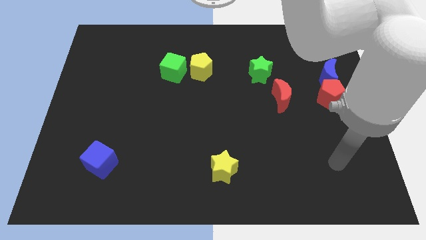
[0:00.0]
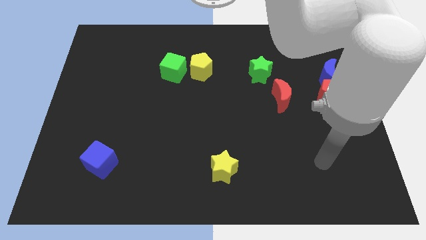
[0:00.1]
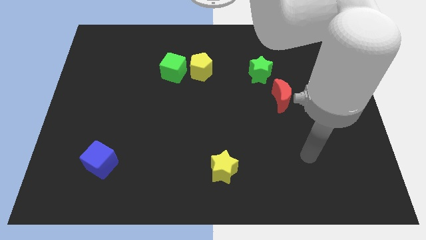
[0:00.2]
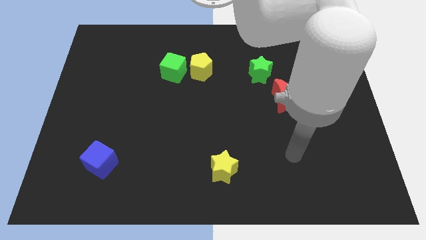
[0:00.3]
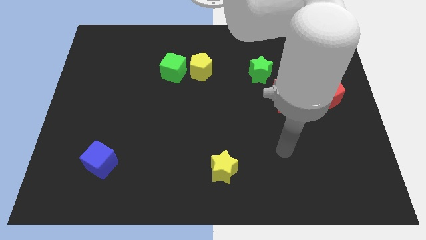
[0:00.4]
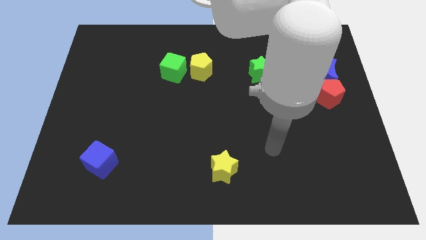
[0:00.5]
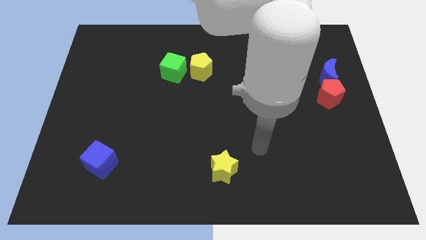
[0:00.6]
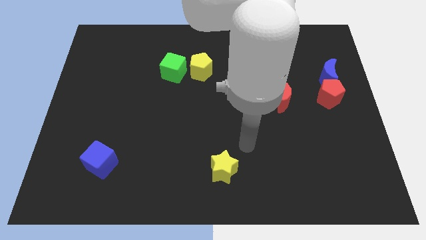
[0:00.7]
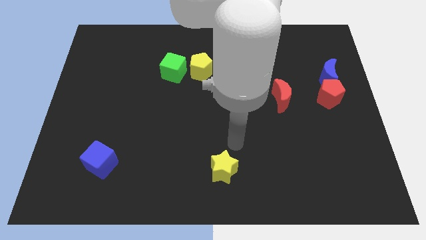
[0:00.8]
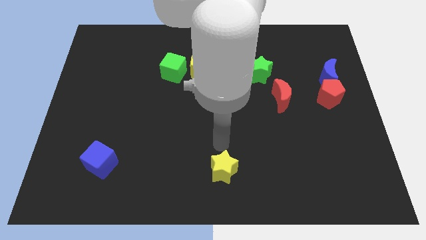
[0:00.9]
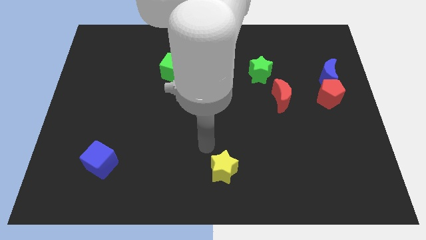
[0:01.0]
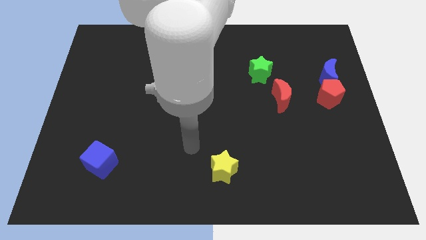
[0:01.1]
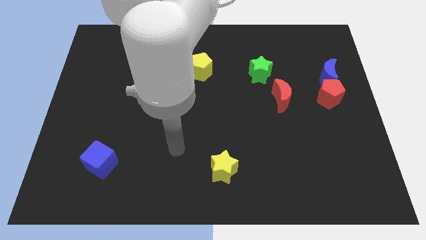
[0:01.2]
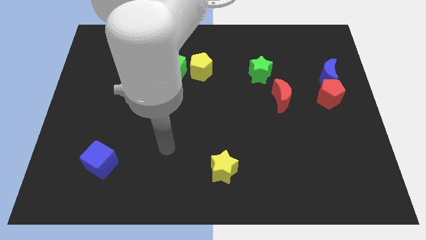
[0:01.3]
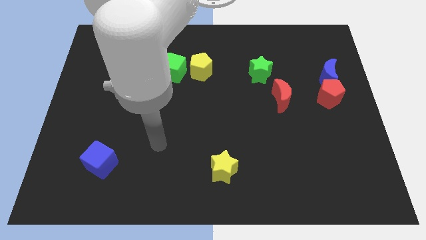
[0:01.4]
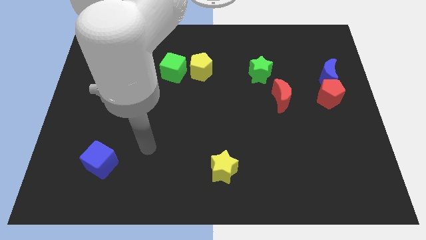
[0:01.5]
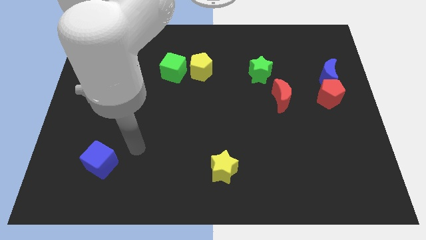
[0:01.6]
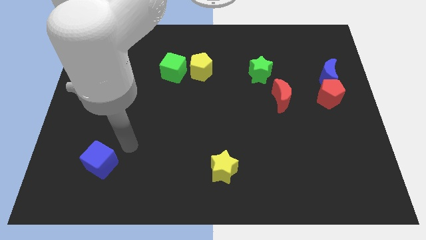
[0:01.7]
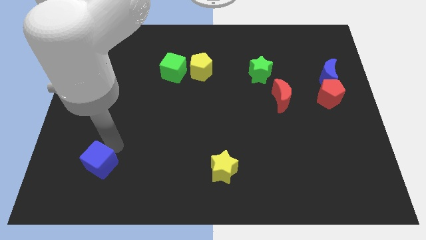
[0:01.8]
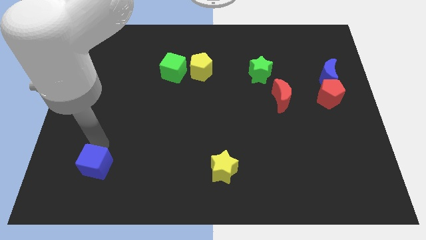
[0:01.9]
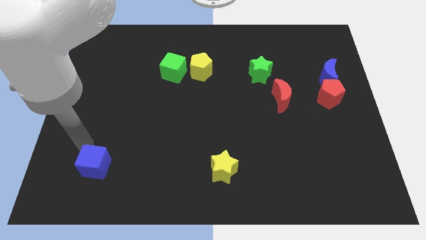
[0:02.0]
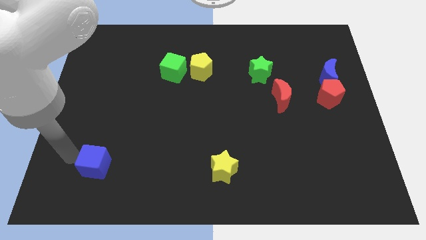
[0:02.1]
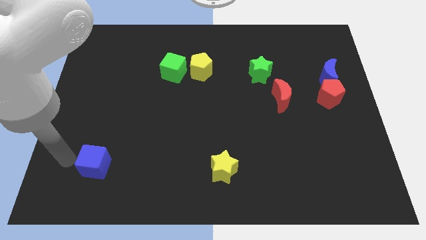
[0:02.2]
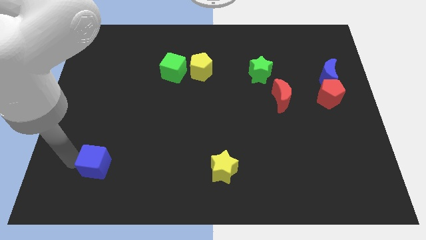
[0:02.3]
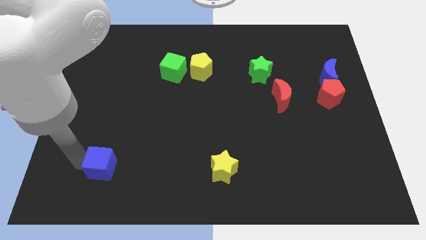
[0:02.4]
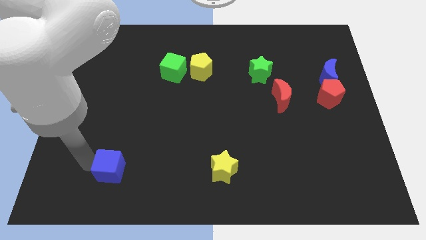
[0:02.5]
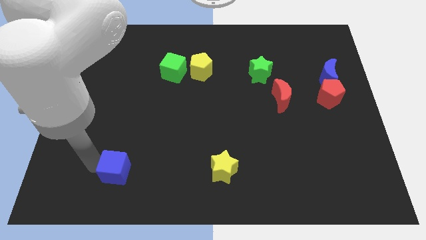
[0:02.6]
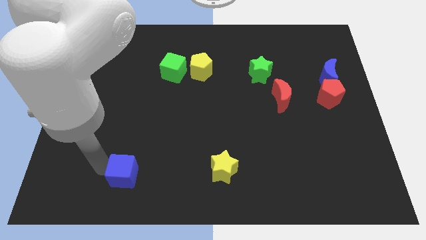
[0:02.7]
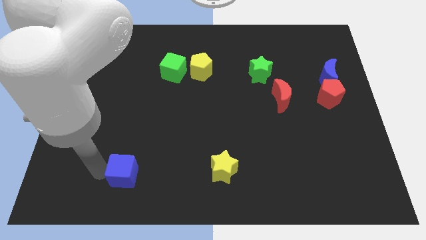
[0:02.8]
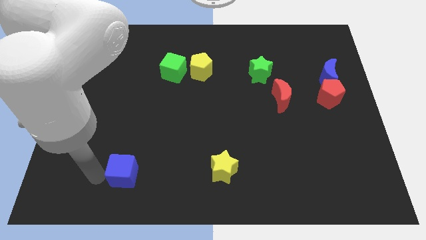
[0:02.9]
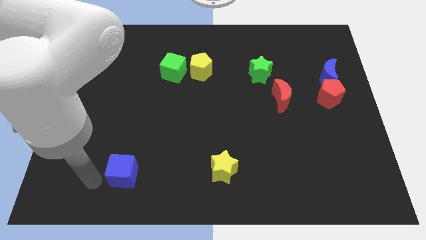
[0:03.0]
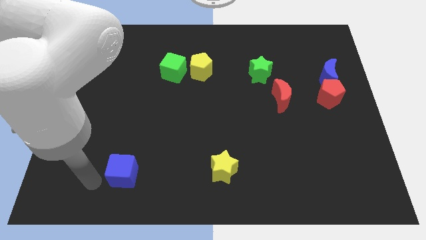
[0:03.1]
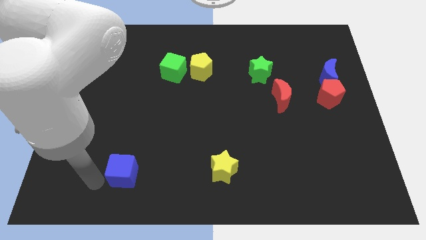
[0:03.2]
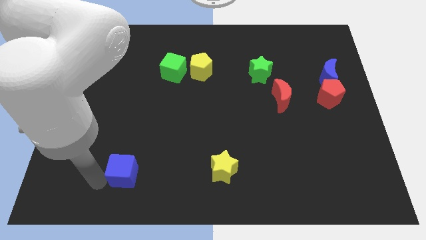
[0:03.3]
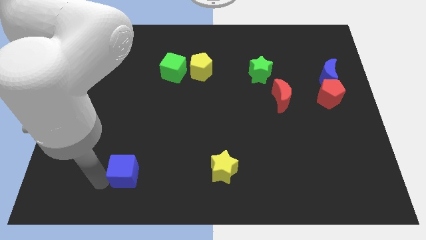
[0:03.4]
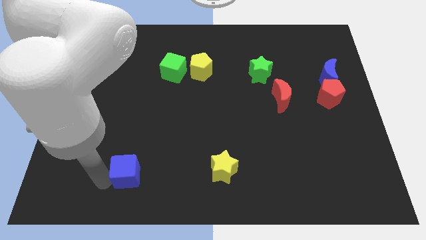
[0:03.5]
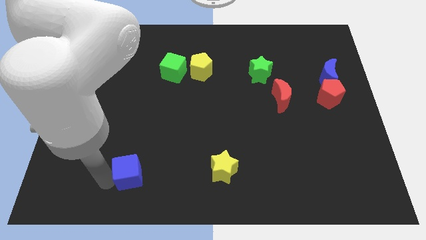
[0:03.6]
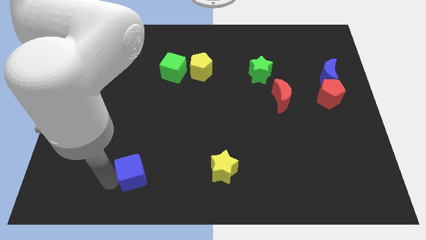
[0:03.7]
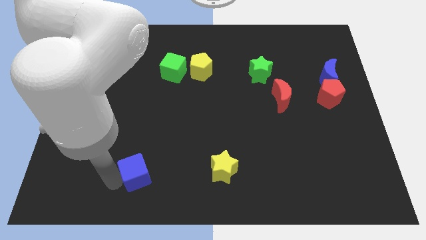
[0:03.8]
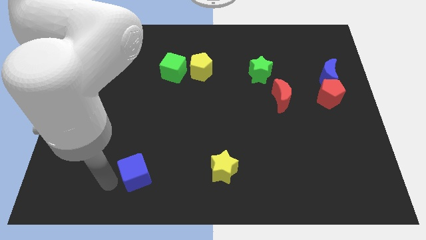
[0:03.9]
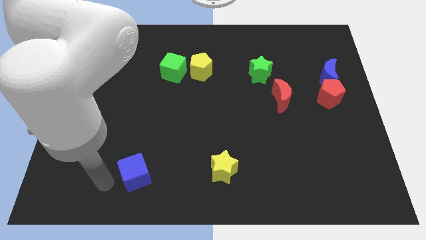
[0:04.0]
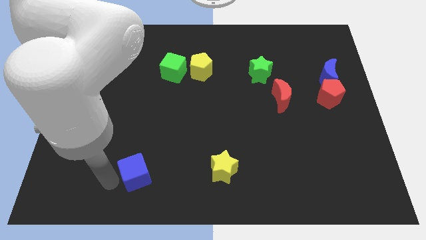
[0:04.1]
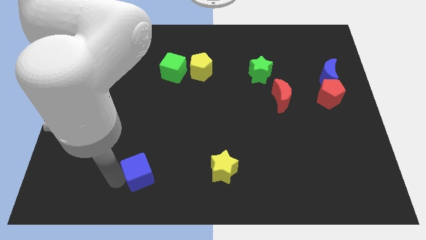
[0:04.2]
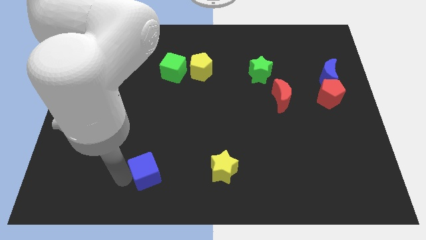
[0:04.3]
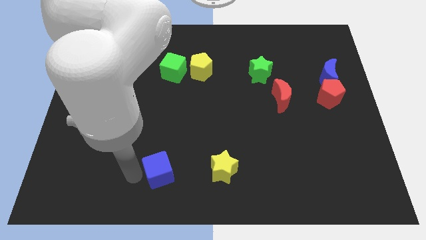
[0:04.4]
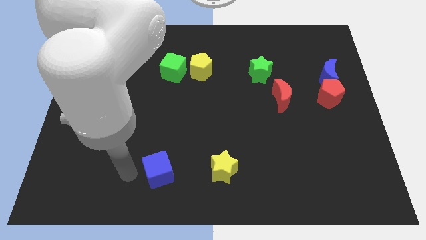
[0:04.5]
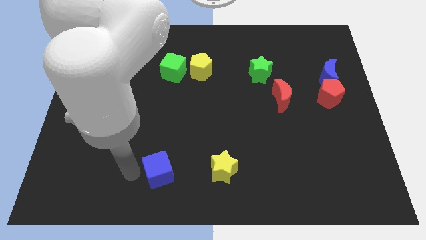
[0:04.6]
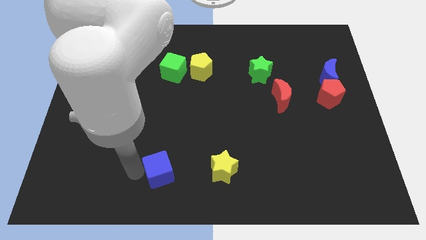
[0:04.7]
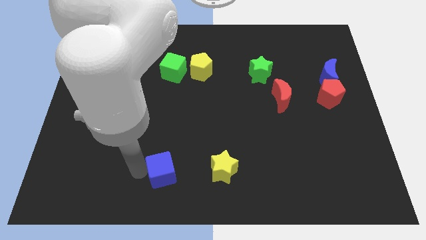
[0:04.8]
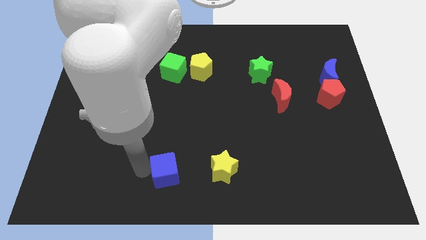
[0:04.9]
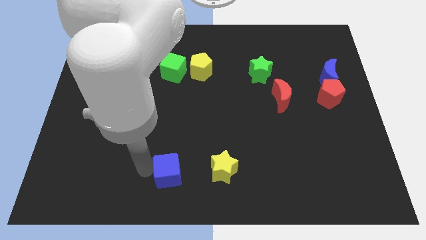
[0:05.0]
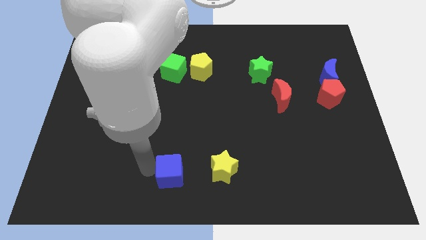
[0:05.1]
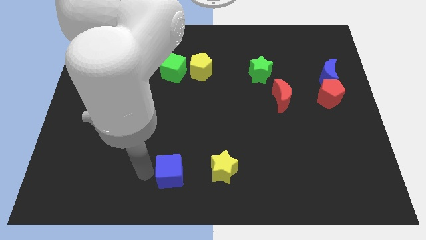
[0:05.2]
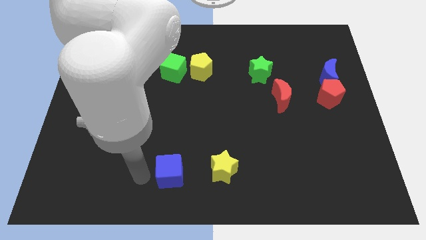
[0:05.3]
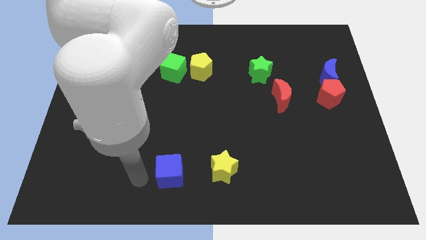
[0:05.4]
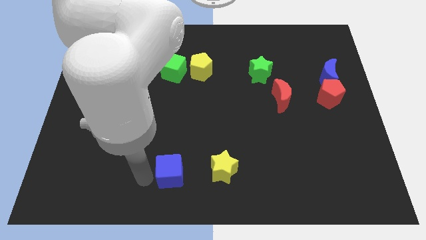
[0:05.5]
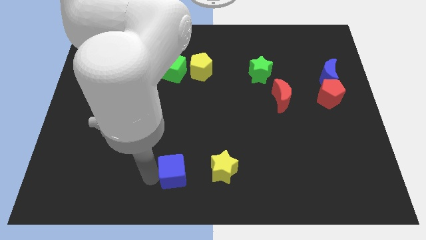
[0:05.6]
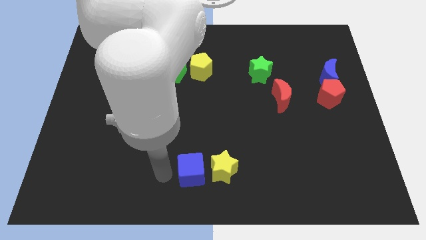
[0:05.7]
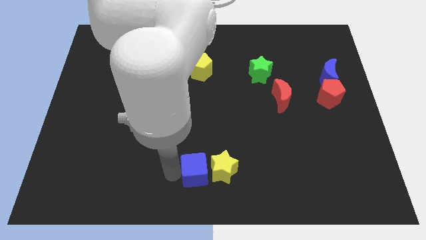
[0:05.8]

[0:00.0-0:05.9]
push the blue cube towards the yellow star

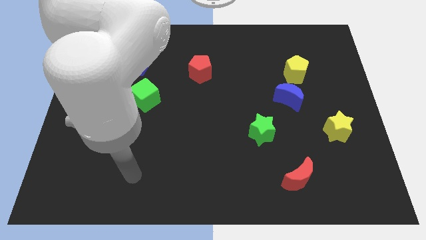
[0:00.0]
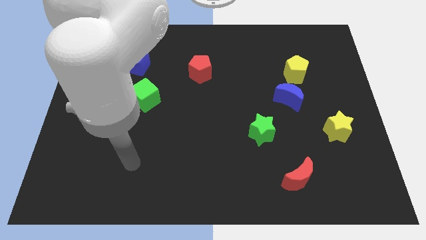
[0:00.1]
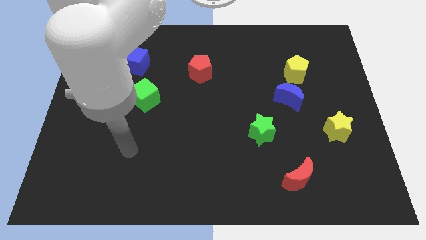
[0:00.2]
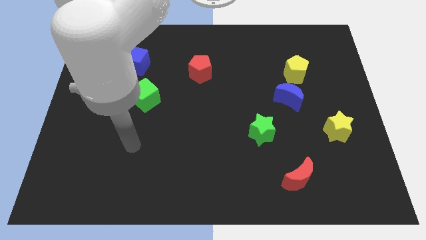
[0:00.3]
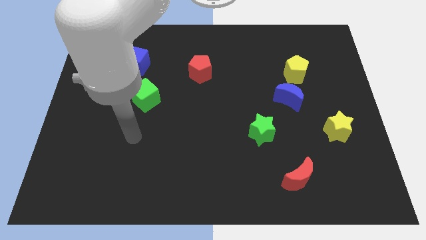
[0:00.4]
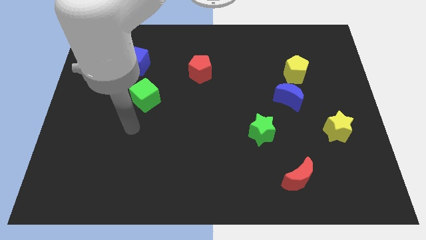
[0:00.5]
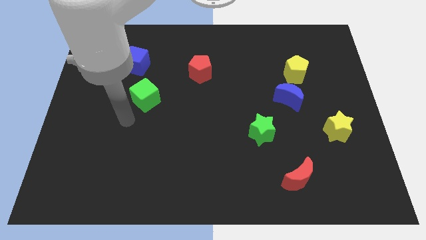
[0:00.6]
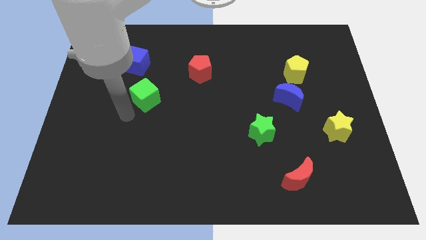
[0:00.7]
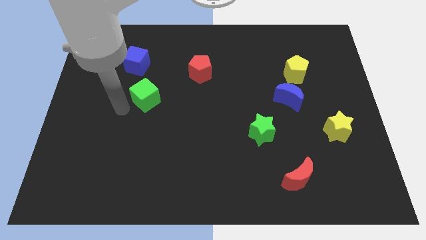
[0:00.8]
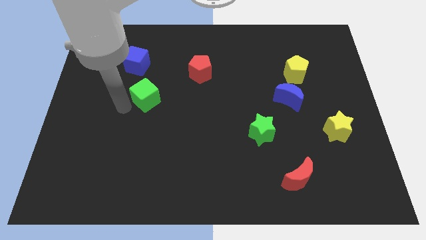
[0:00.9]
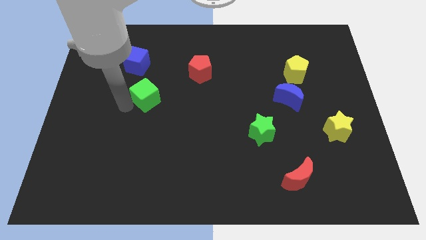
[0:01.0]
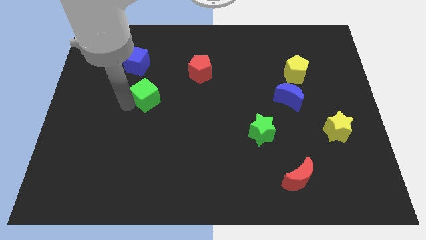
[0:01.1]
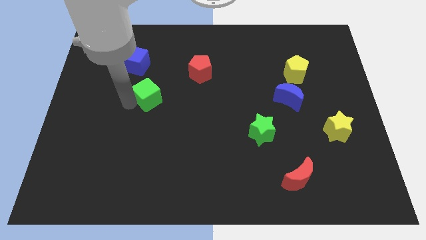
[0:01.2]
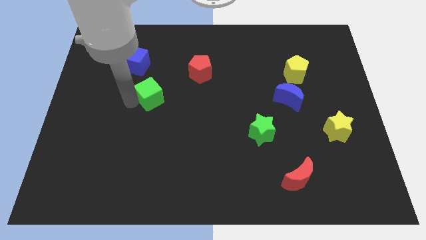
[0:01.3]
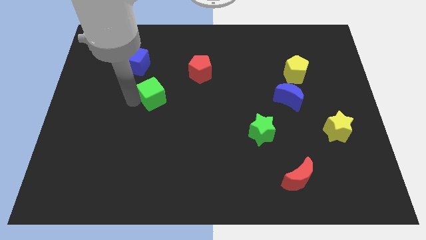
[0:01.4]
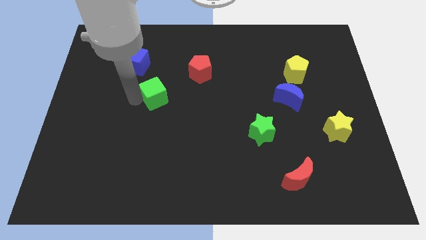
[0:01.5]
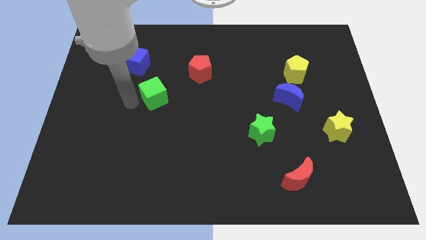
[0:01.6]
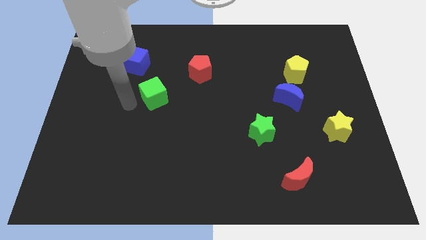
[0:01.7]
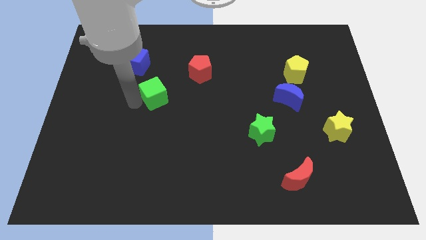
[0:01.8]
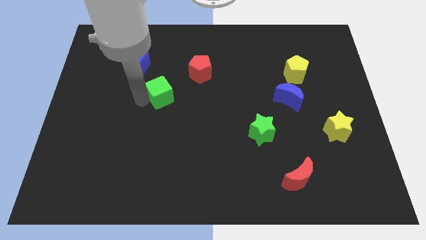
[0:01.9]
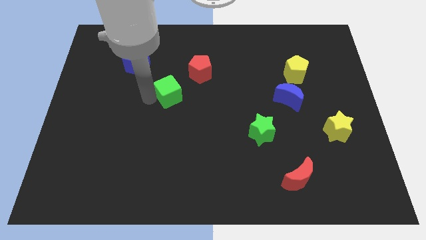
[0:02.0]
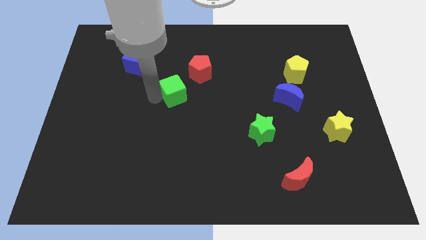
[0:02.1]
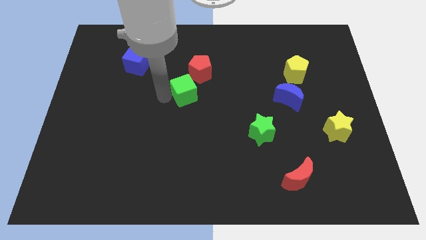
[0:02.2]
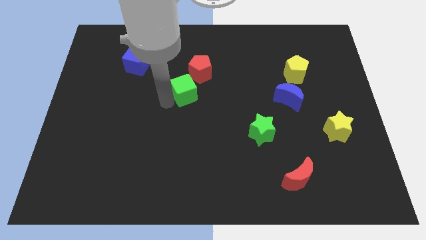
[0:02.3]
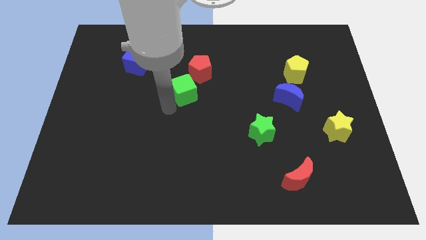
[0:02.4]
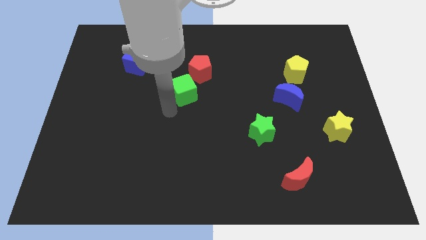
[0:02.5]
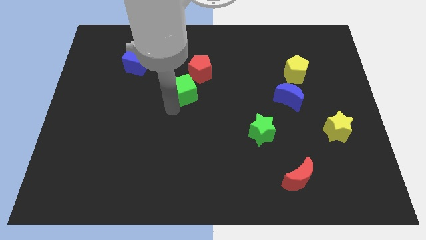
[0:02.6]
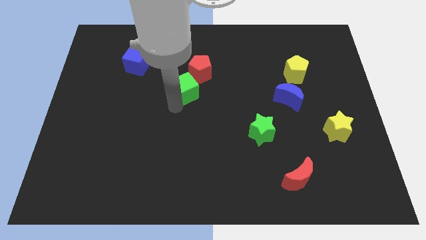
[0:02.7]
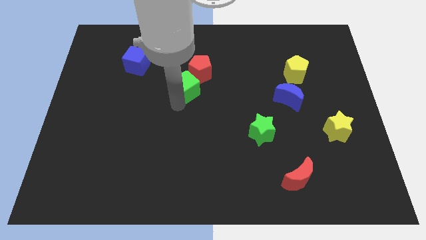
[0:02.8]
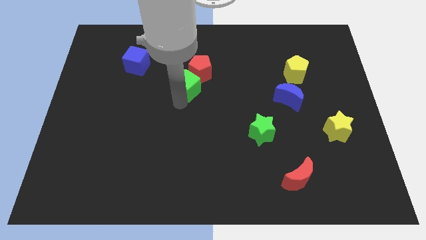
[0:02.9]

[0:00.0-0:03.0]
move the green cube towards the red pentagon
